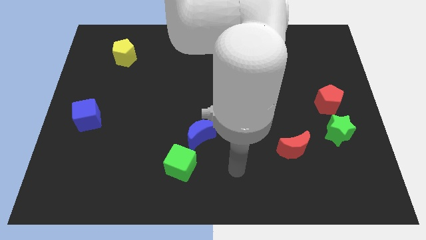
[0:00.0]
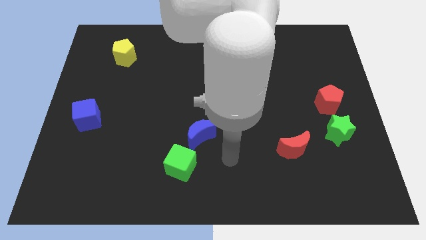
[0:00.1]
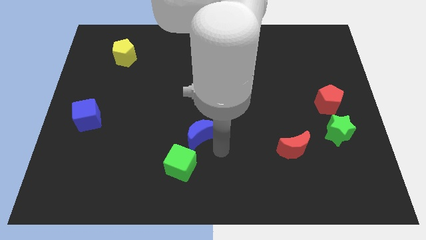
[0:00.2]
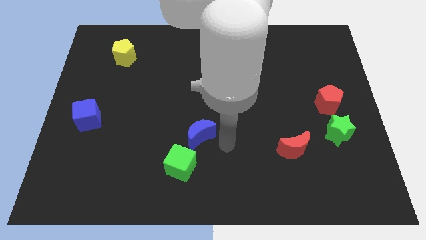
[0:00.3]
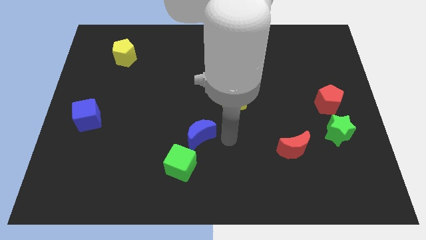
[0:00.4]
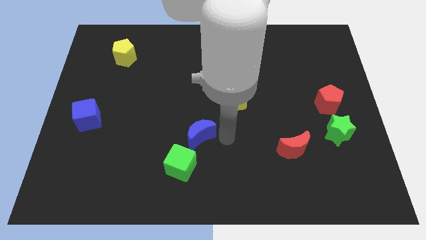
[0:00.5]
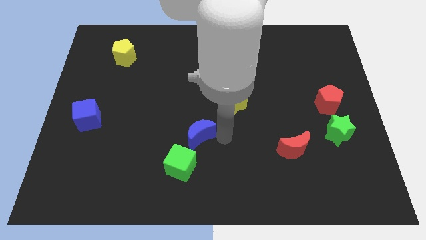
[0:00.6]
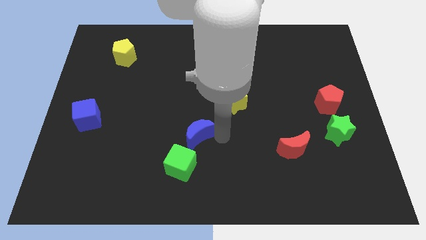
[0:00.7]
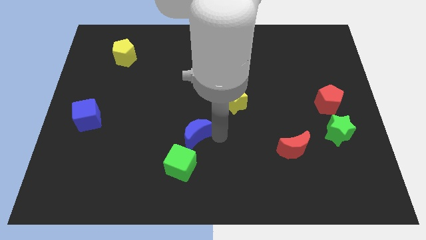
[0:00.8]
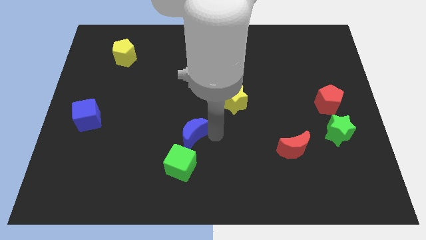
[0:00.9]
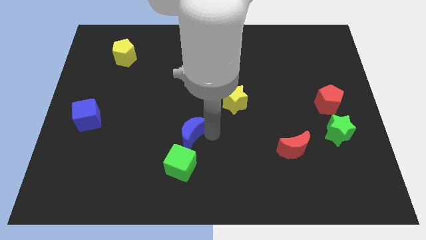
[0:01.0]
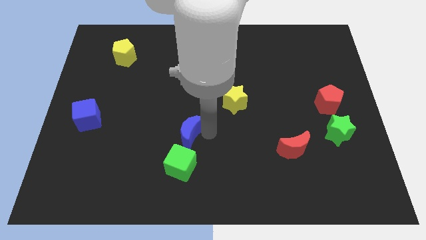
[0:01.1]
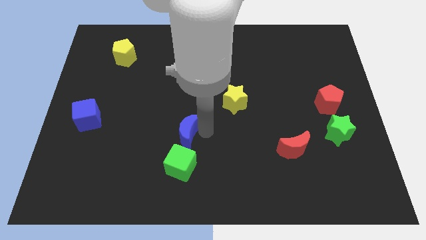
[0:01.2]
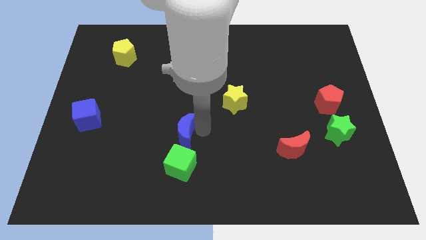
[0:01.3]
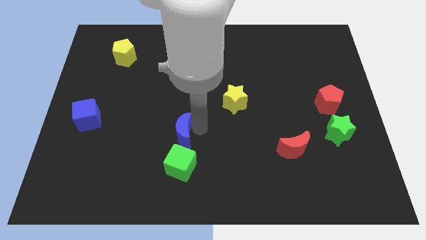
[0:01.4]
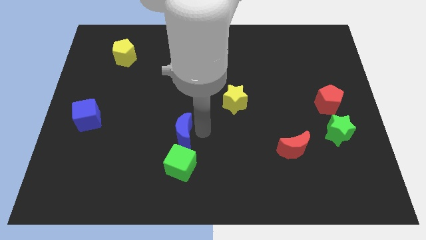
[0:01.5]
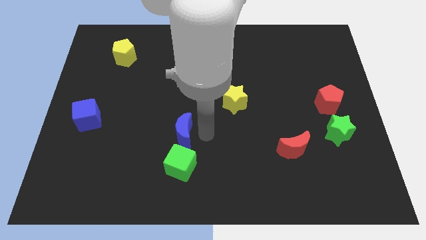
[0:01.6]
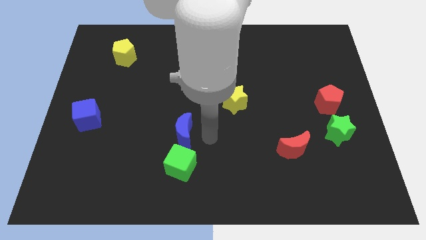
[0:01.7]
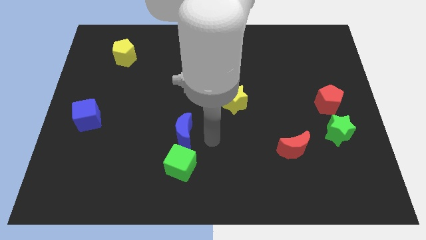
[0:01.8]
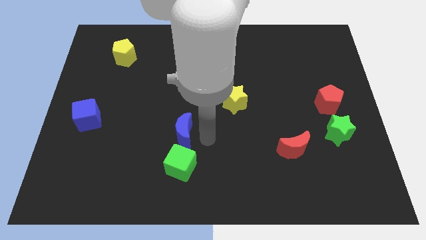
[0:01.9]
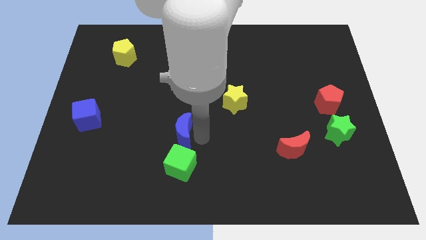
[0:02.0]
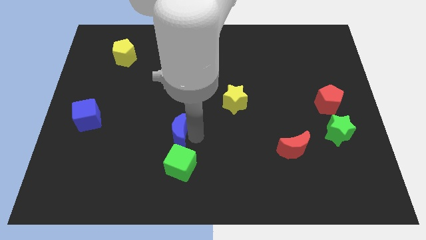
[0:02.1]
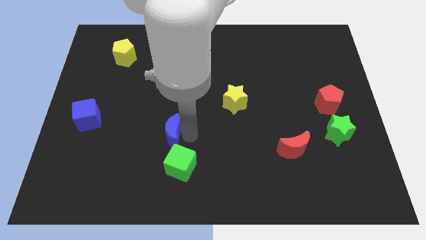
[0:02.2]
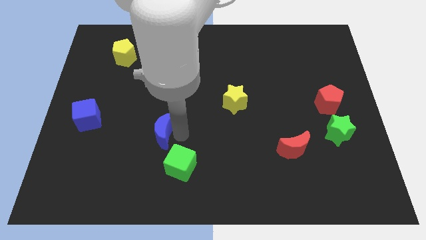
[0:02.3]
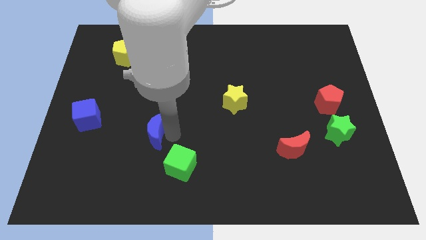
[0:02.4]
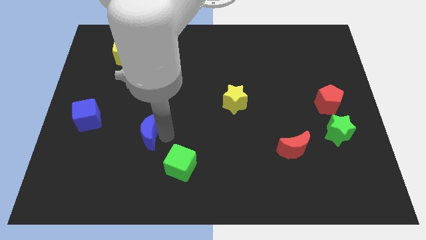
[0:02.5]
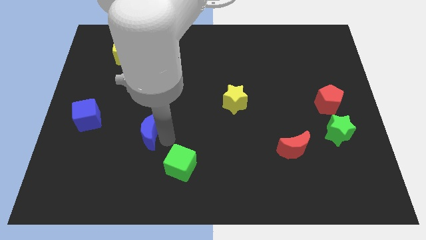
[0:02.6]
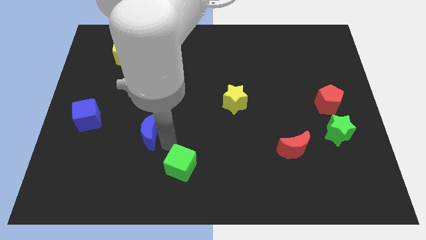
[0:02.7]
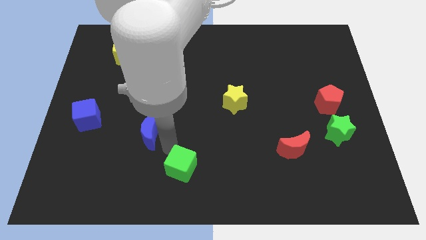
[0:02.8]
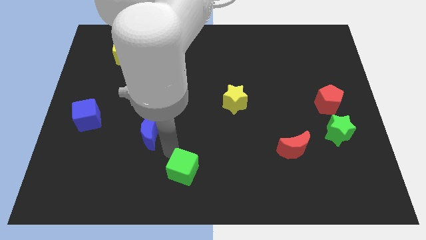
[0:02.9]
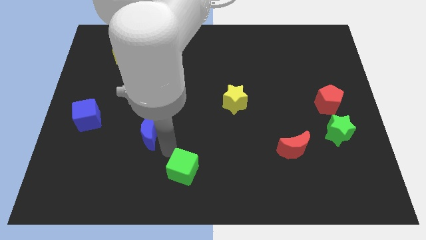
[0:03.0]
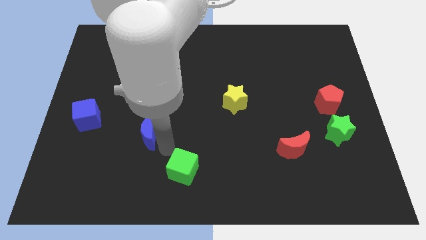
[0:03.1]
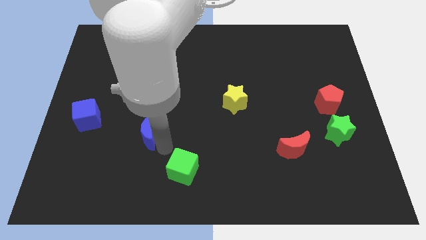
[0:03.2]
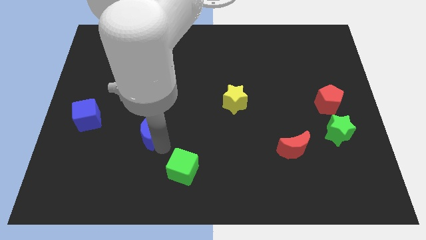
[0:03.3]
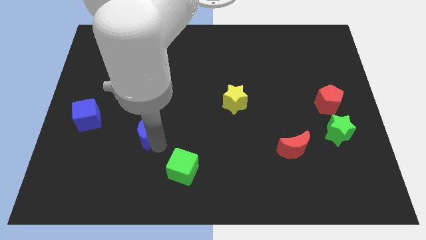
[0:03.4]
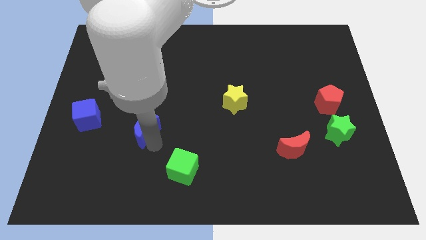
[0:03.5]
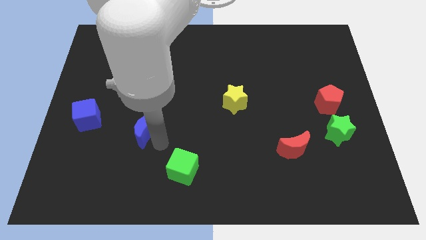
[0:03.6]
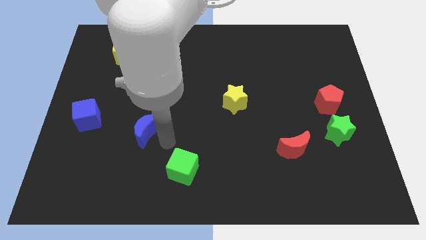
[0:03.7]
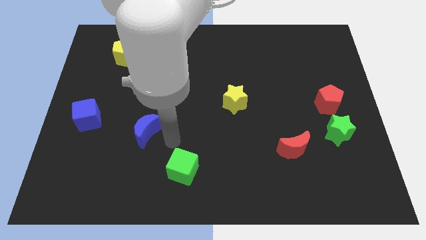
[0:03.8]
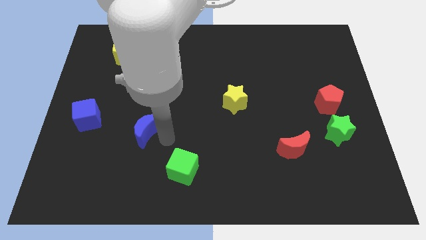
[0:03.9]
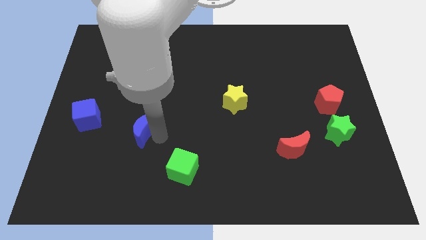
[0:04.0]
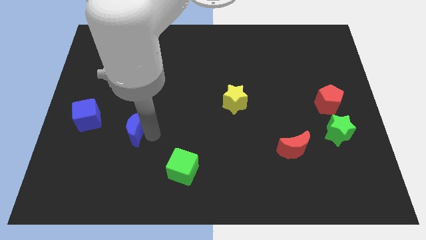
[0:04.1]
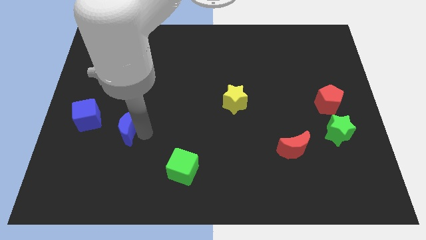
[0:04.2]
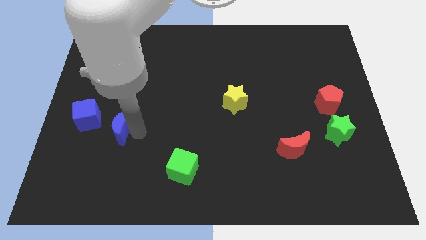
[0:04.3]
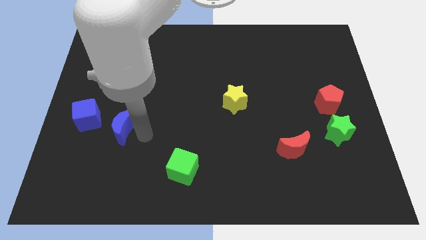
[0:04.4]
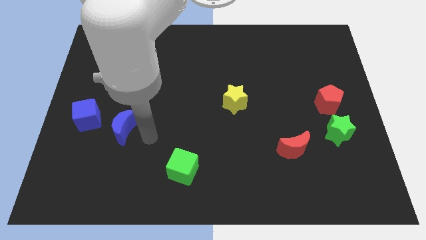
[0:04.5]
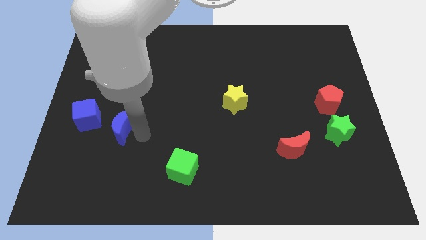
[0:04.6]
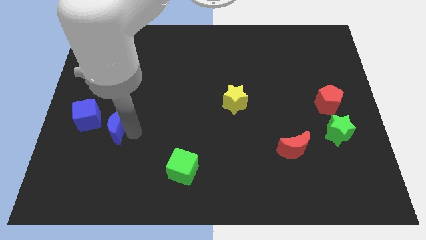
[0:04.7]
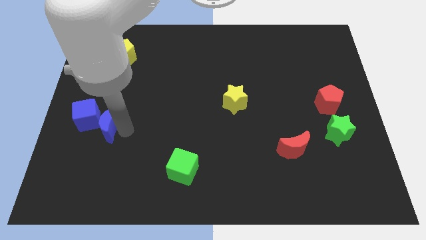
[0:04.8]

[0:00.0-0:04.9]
put the blue moon to the blue cube

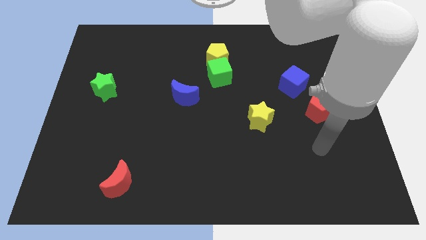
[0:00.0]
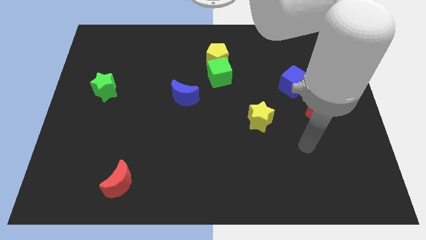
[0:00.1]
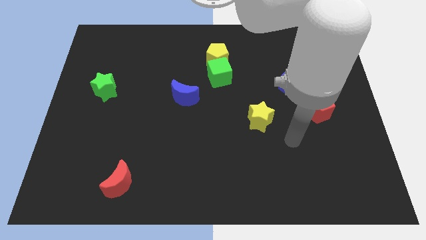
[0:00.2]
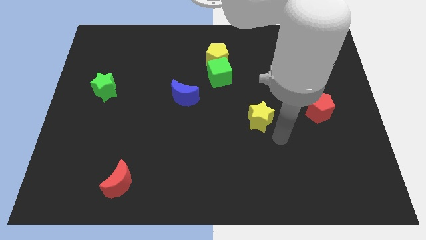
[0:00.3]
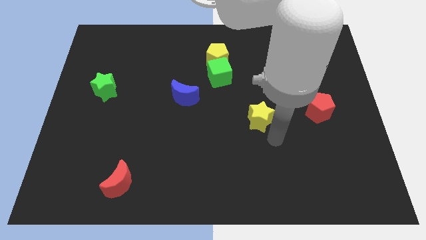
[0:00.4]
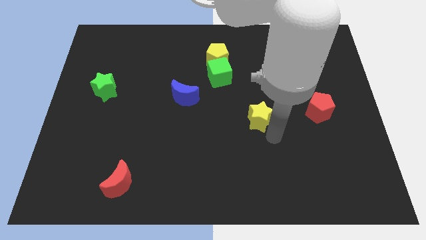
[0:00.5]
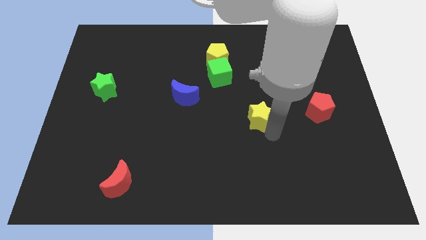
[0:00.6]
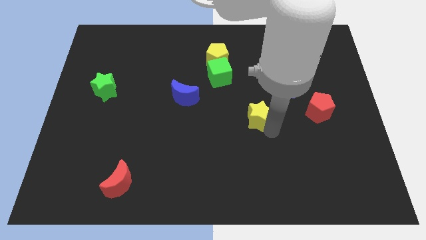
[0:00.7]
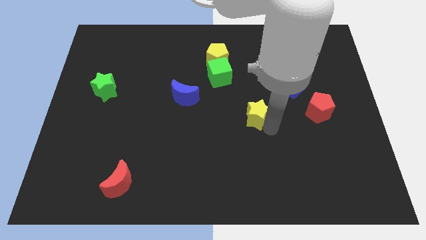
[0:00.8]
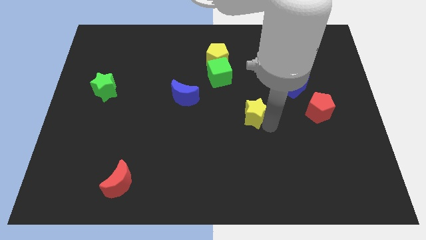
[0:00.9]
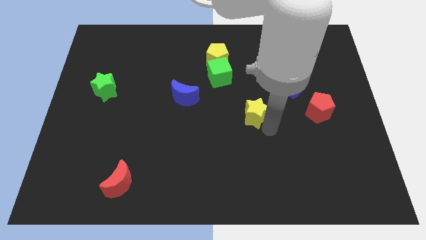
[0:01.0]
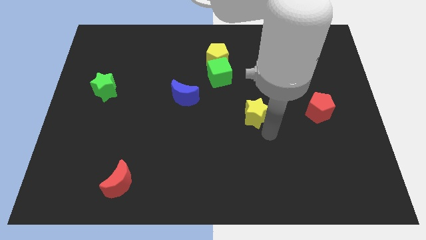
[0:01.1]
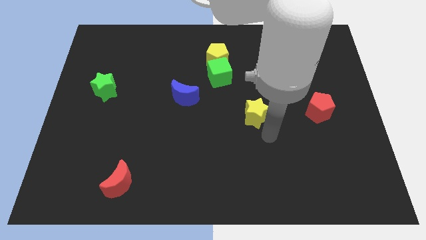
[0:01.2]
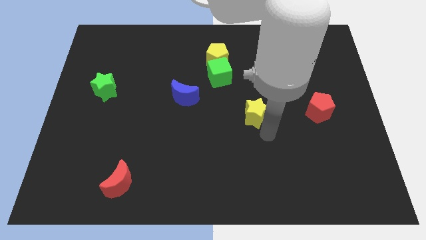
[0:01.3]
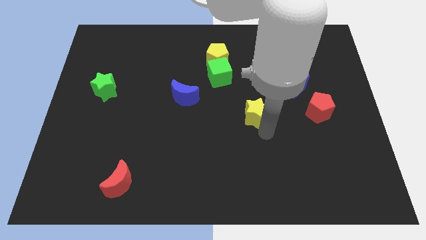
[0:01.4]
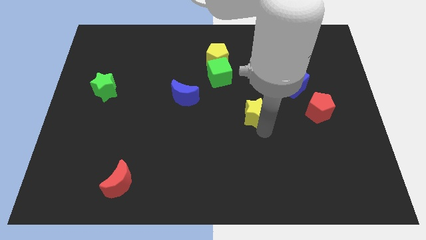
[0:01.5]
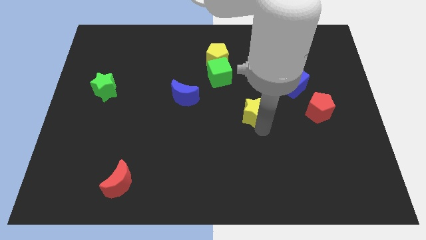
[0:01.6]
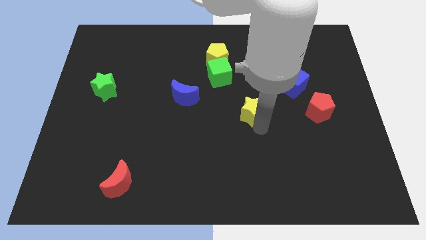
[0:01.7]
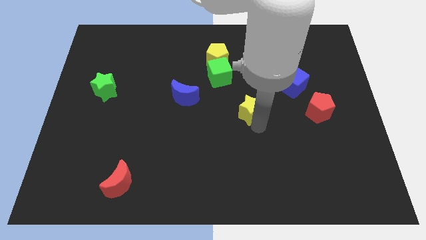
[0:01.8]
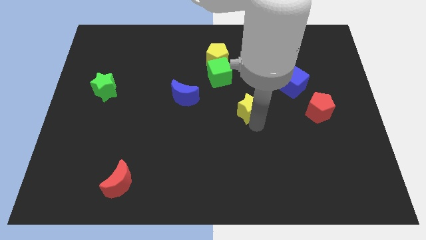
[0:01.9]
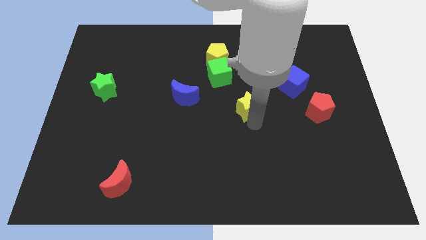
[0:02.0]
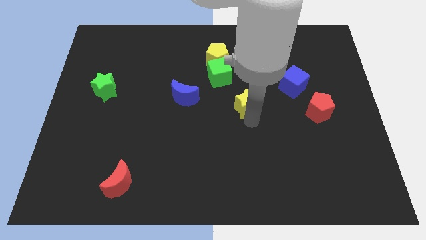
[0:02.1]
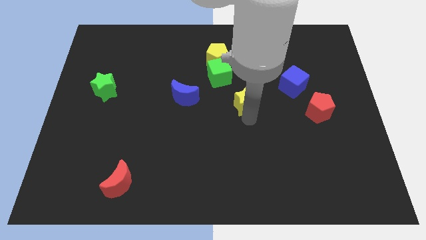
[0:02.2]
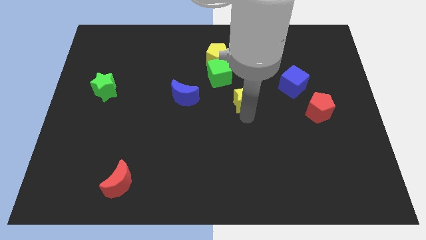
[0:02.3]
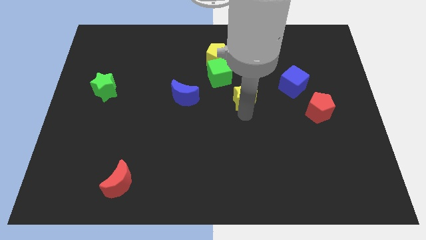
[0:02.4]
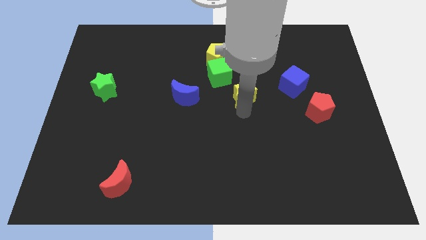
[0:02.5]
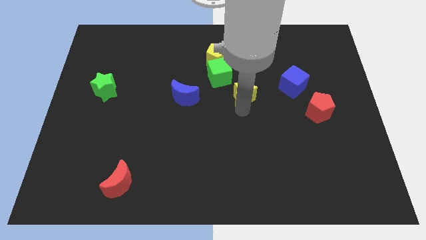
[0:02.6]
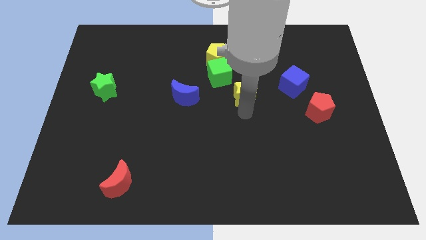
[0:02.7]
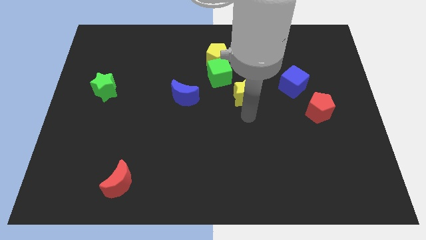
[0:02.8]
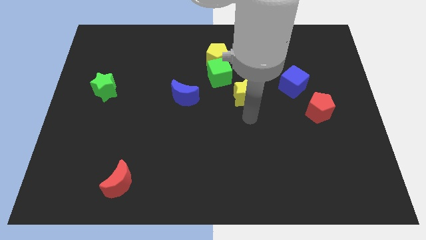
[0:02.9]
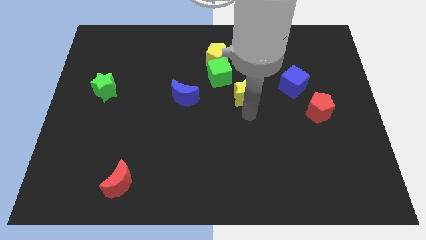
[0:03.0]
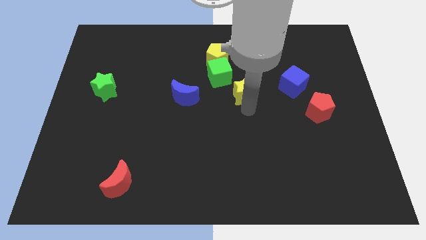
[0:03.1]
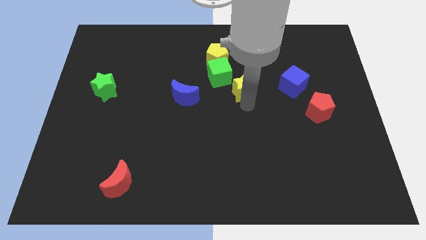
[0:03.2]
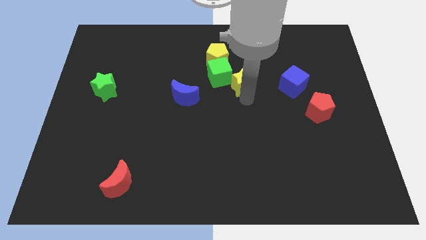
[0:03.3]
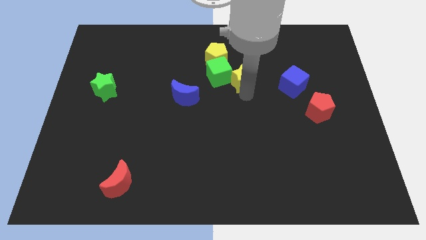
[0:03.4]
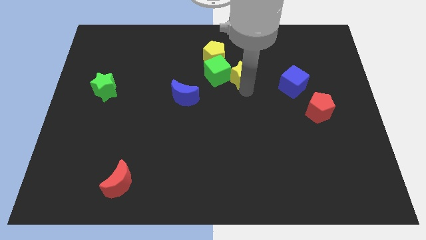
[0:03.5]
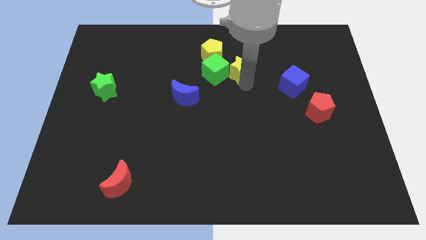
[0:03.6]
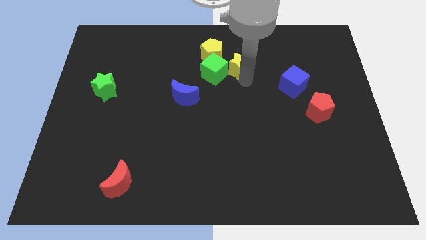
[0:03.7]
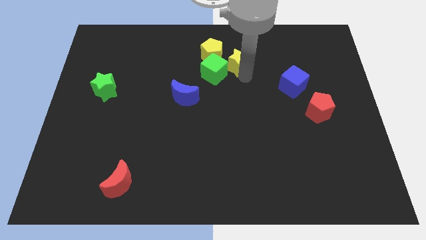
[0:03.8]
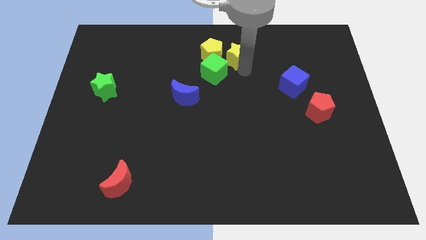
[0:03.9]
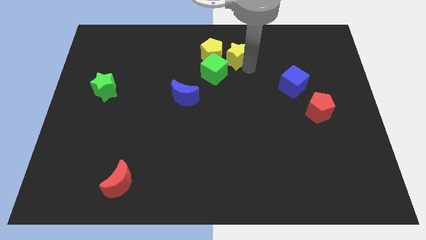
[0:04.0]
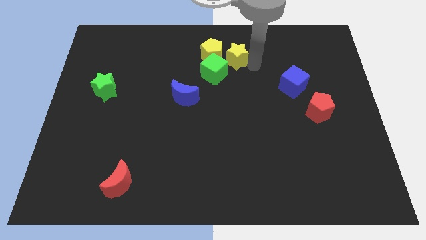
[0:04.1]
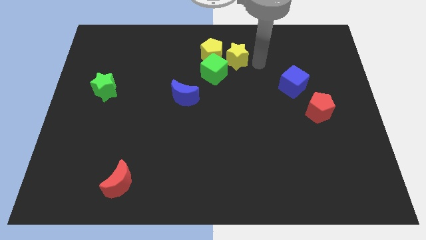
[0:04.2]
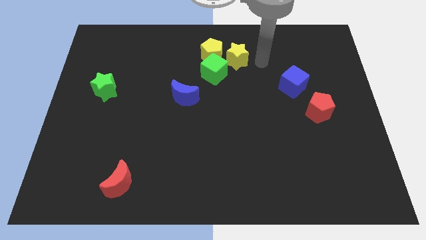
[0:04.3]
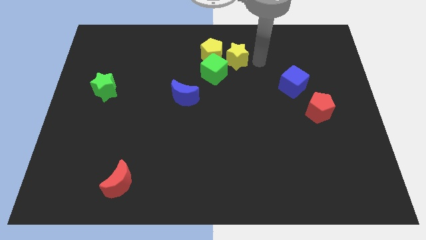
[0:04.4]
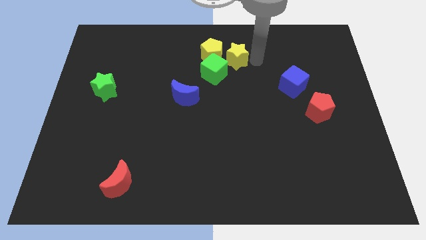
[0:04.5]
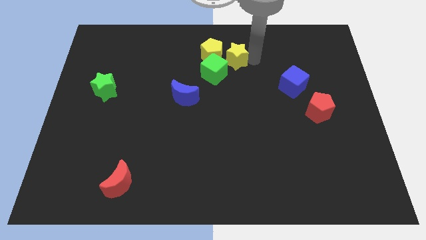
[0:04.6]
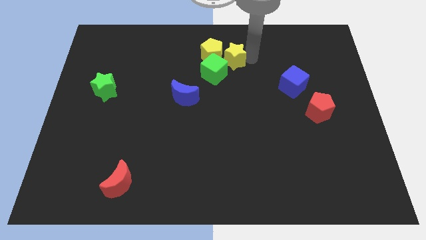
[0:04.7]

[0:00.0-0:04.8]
move the yellow star to the yellow pentagon
